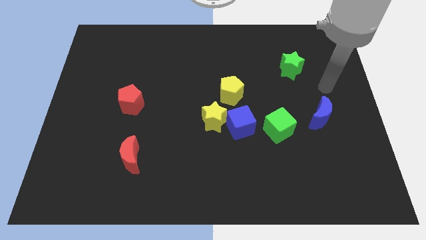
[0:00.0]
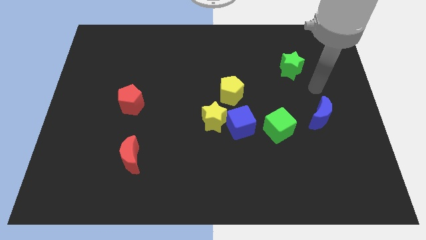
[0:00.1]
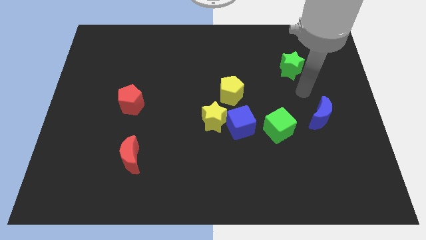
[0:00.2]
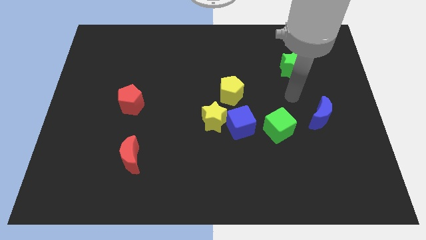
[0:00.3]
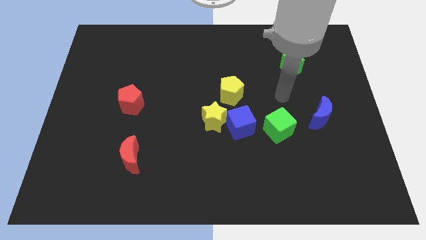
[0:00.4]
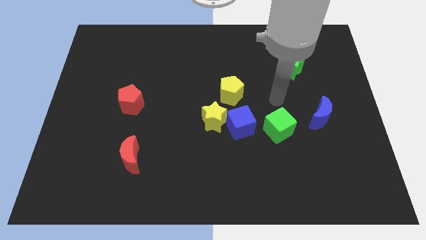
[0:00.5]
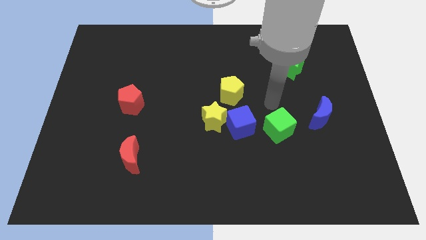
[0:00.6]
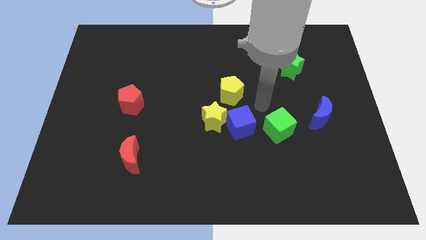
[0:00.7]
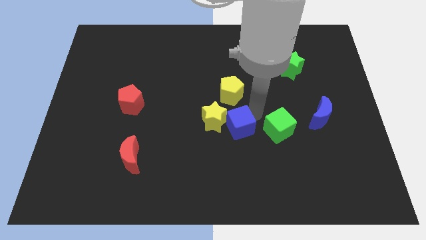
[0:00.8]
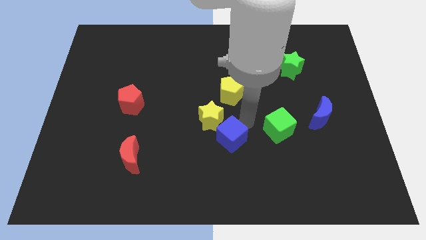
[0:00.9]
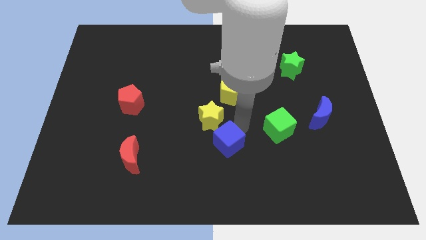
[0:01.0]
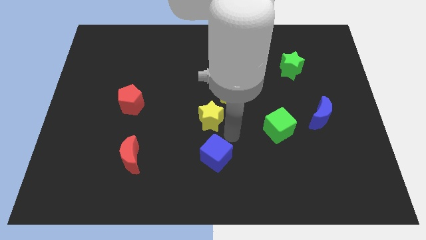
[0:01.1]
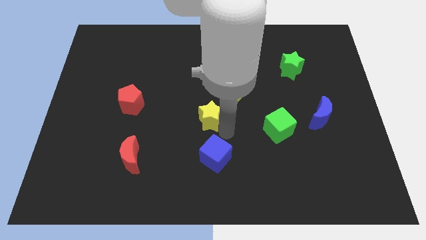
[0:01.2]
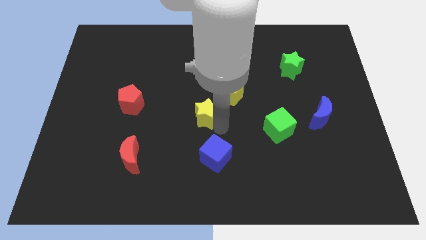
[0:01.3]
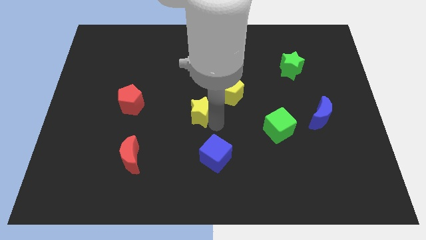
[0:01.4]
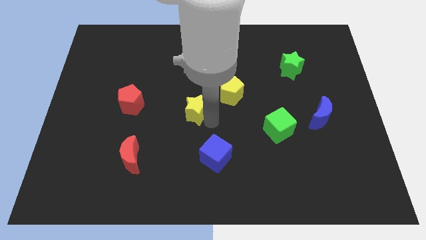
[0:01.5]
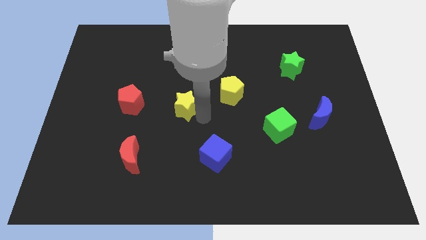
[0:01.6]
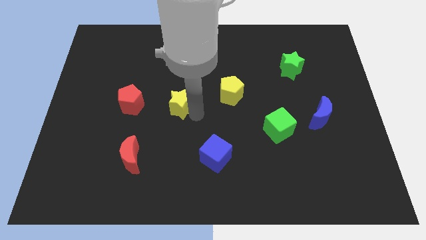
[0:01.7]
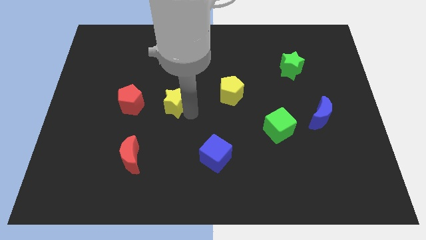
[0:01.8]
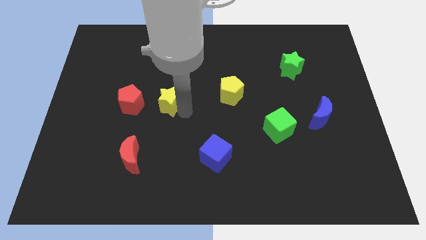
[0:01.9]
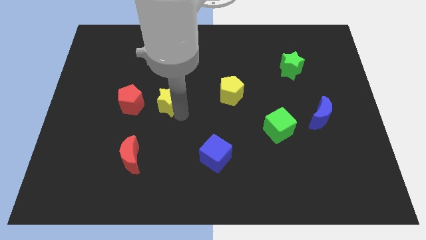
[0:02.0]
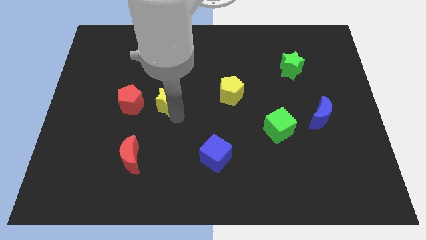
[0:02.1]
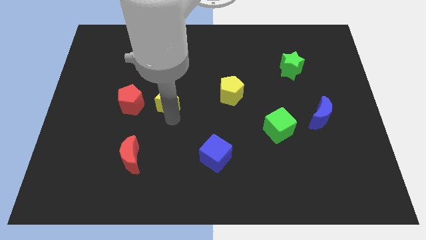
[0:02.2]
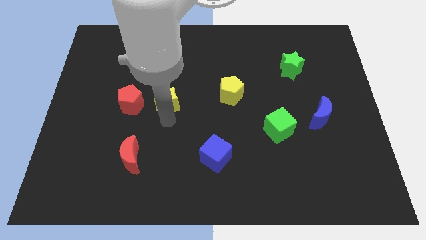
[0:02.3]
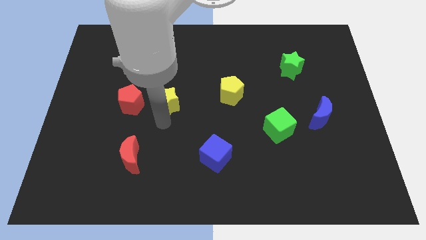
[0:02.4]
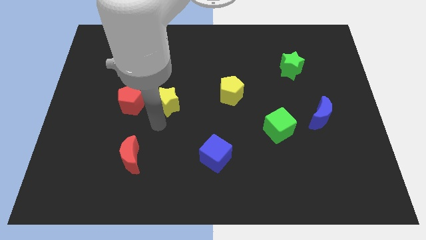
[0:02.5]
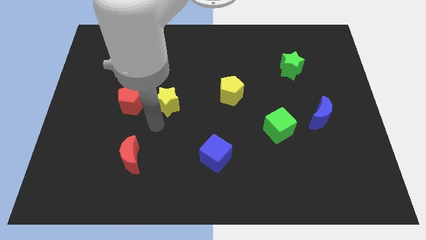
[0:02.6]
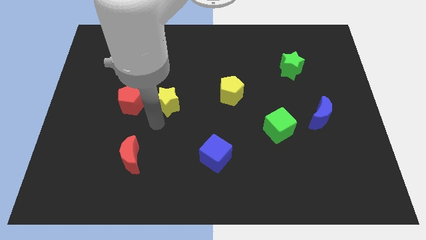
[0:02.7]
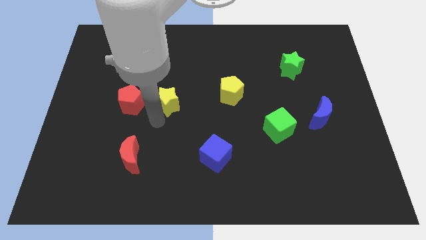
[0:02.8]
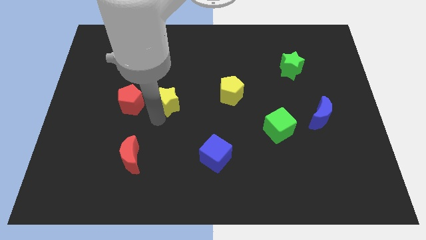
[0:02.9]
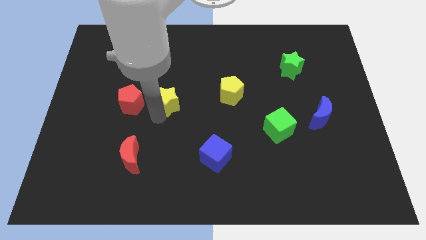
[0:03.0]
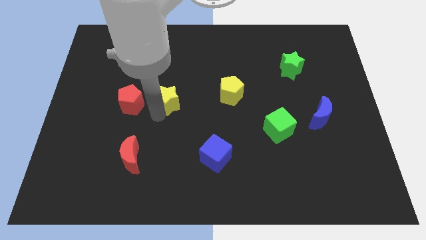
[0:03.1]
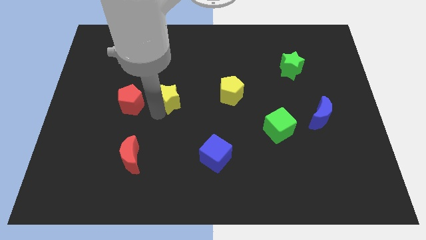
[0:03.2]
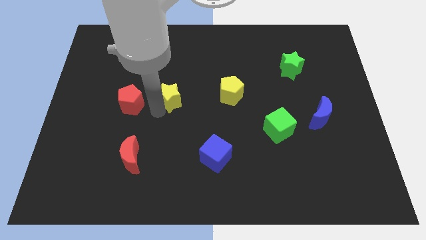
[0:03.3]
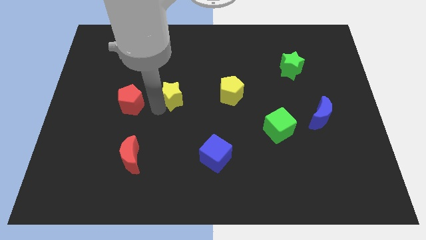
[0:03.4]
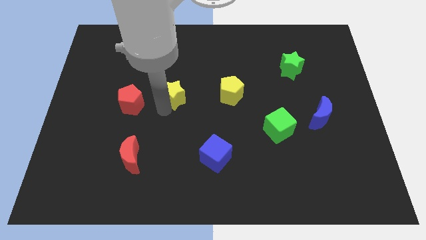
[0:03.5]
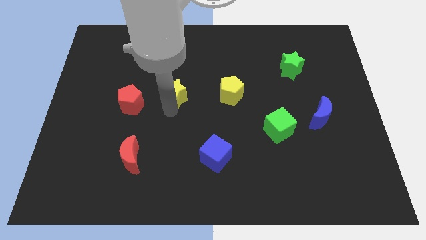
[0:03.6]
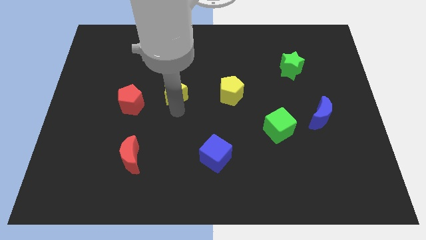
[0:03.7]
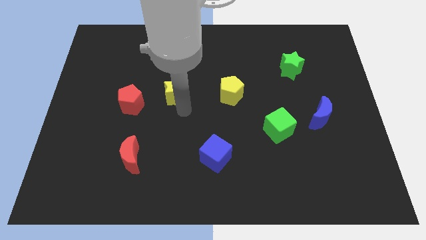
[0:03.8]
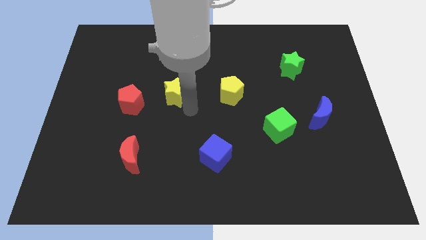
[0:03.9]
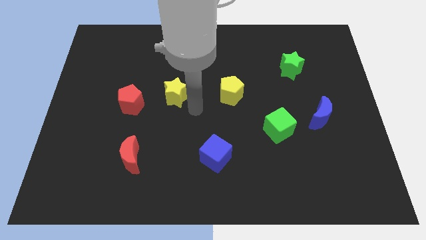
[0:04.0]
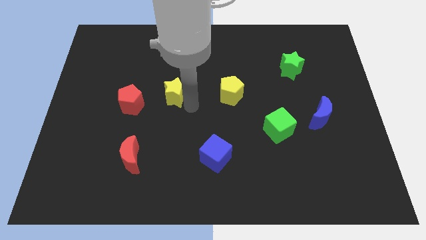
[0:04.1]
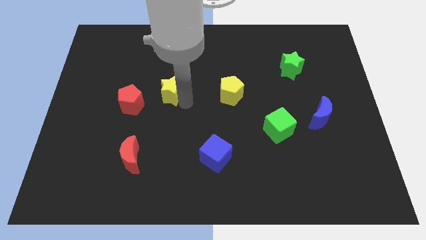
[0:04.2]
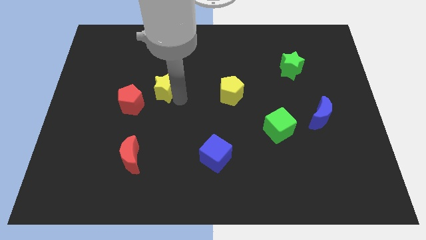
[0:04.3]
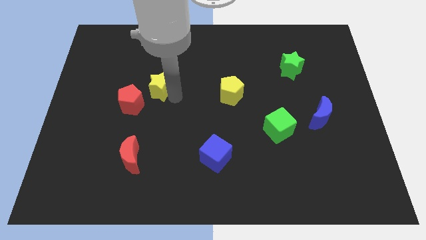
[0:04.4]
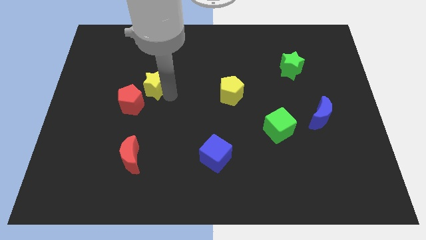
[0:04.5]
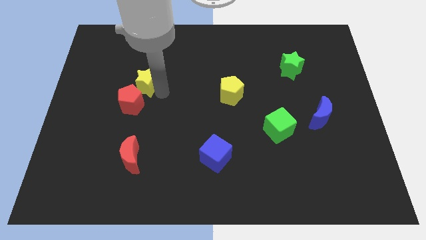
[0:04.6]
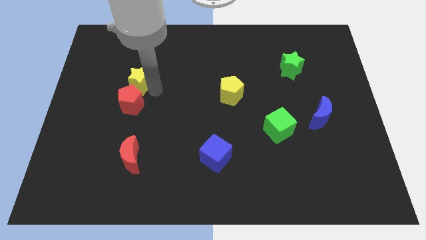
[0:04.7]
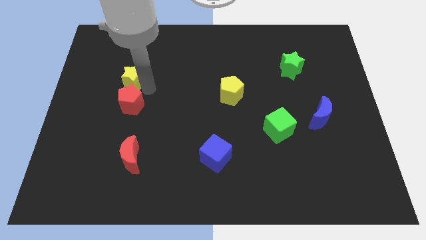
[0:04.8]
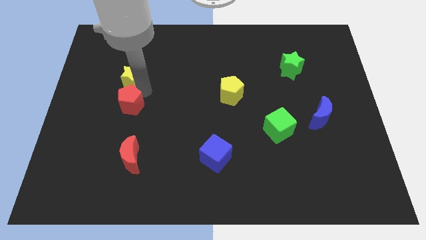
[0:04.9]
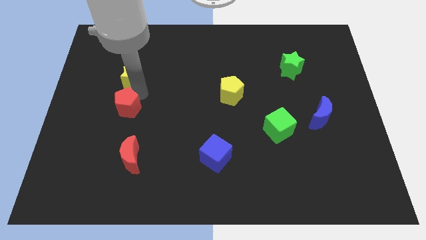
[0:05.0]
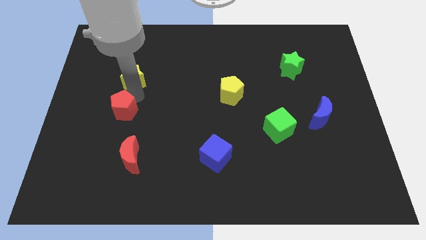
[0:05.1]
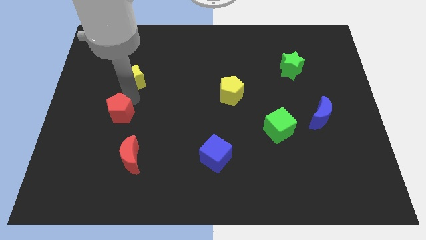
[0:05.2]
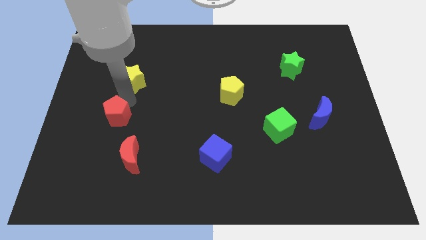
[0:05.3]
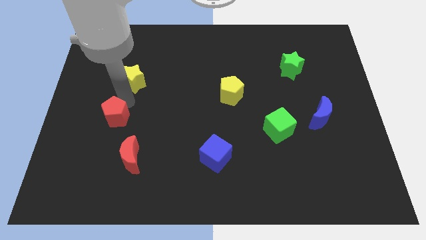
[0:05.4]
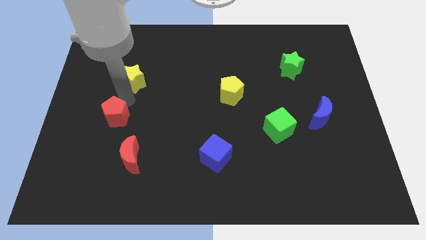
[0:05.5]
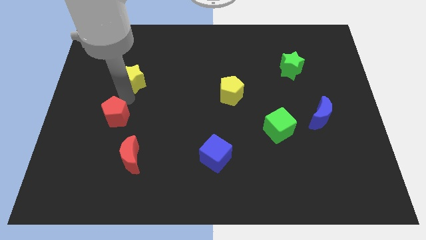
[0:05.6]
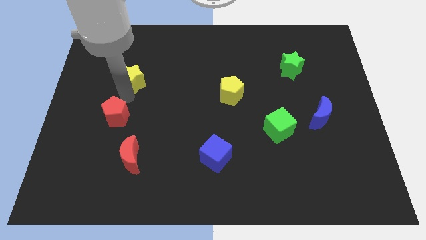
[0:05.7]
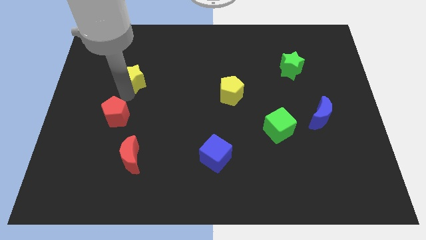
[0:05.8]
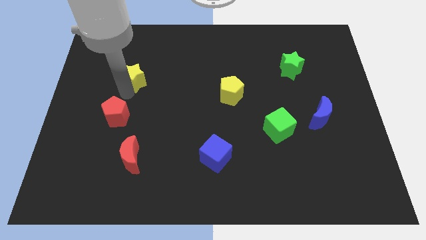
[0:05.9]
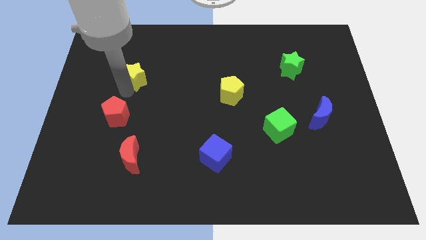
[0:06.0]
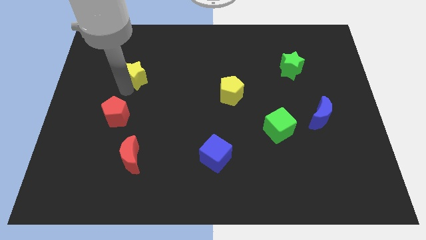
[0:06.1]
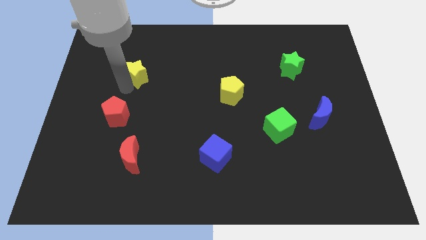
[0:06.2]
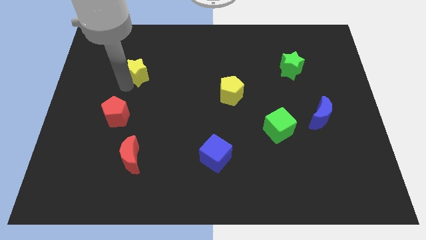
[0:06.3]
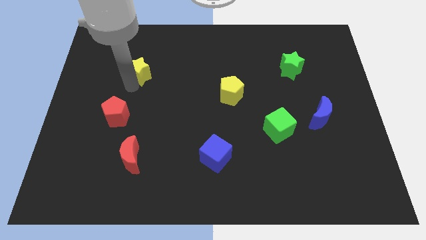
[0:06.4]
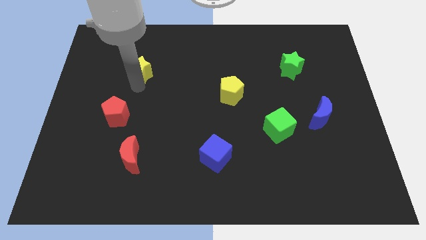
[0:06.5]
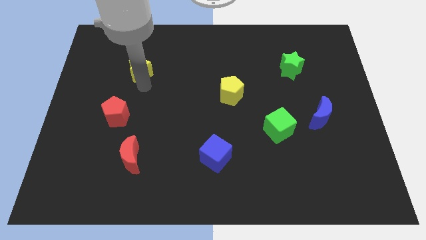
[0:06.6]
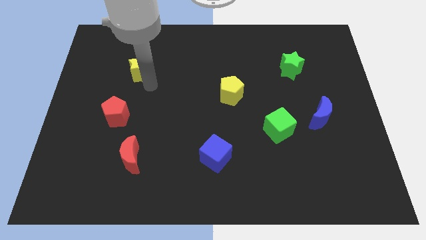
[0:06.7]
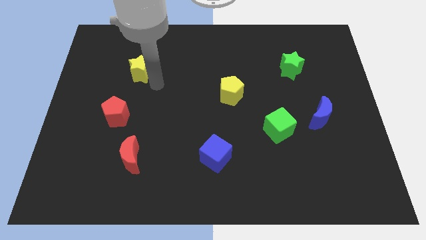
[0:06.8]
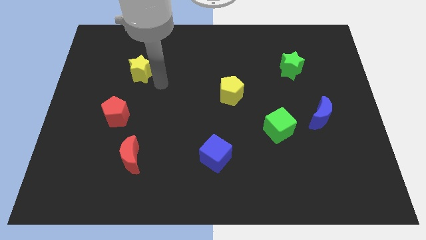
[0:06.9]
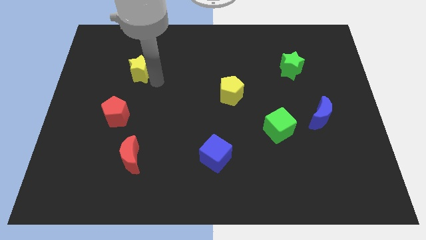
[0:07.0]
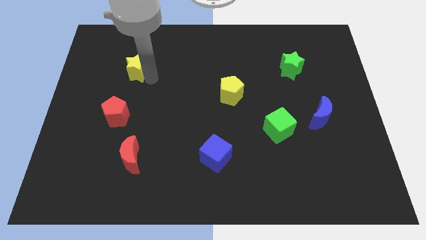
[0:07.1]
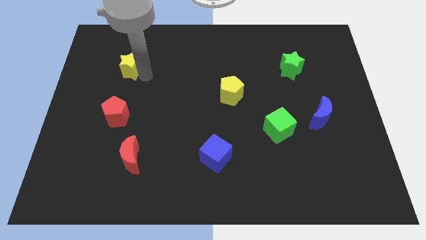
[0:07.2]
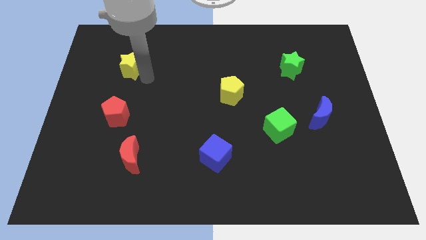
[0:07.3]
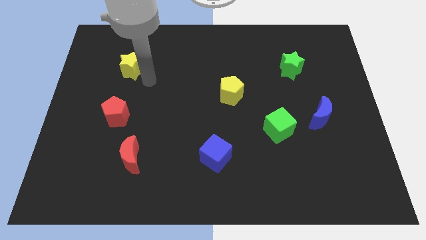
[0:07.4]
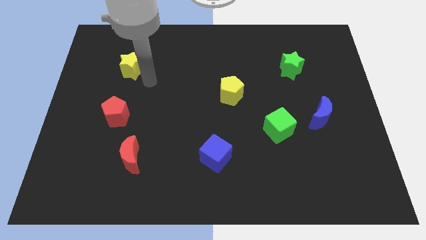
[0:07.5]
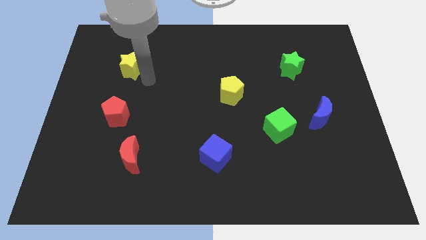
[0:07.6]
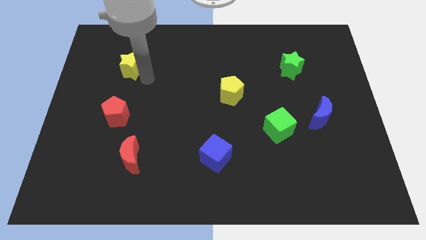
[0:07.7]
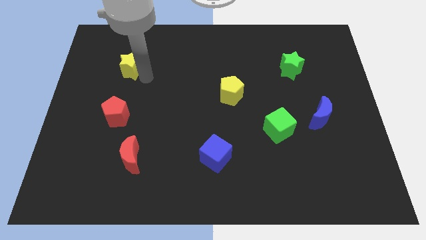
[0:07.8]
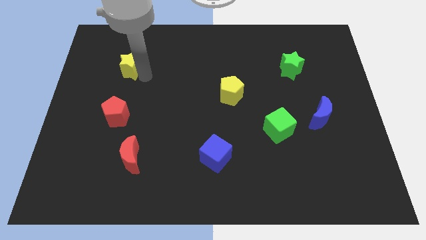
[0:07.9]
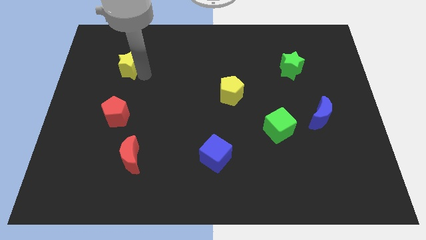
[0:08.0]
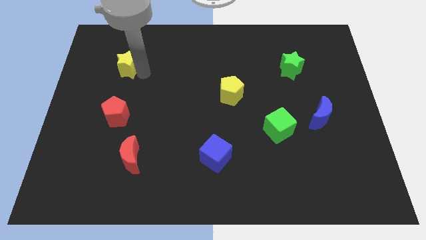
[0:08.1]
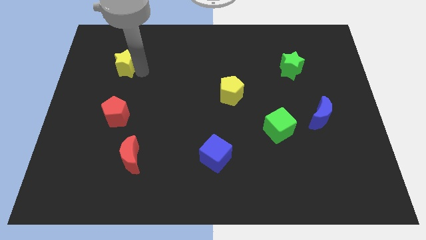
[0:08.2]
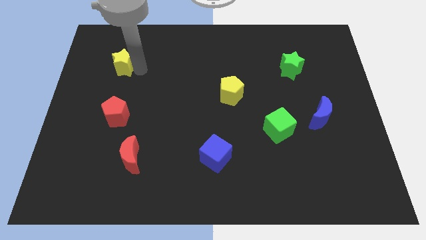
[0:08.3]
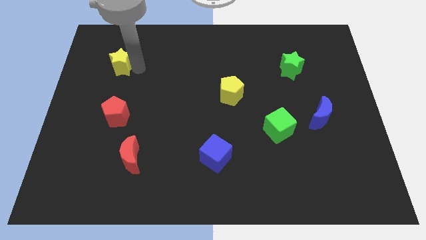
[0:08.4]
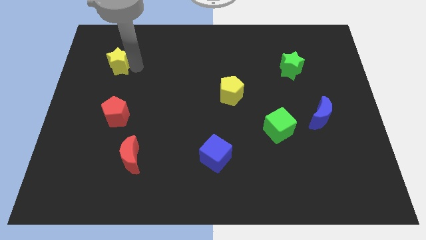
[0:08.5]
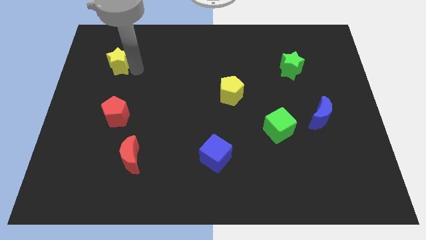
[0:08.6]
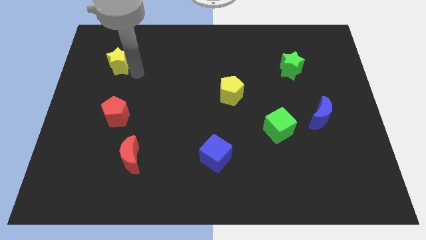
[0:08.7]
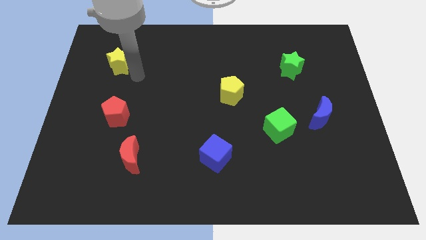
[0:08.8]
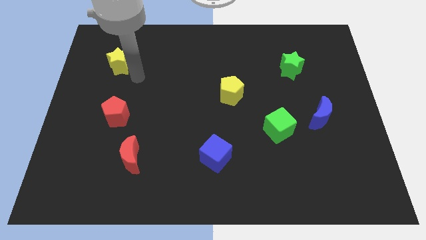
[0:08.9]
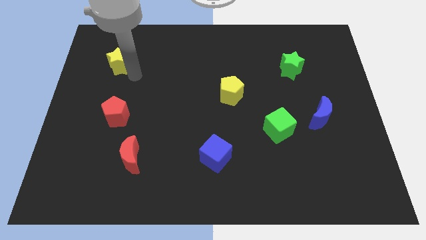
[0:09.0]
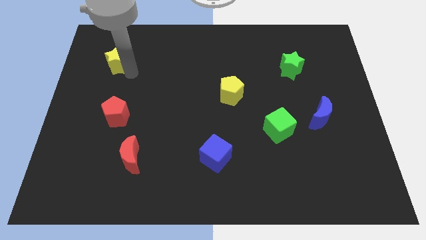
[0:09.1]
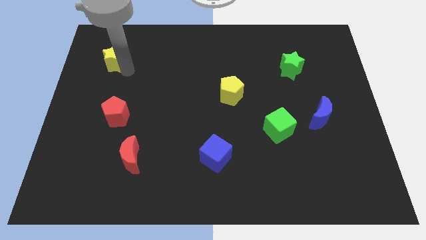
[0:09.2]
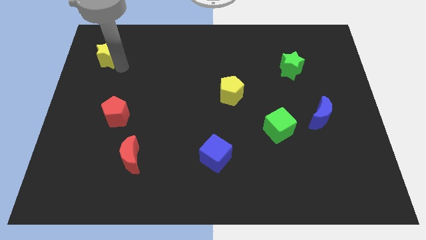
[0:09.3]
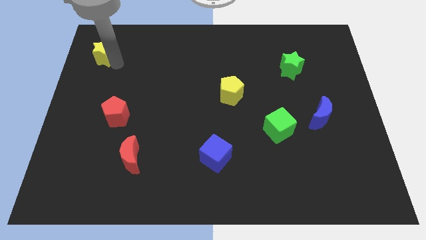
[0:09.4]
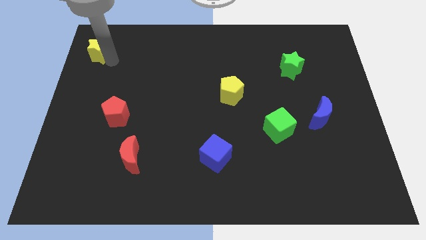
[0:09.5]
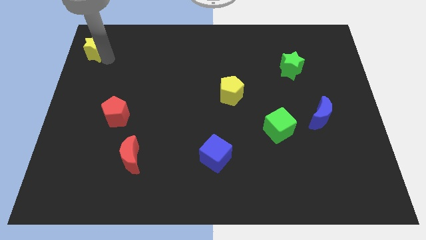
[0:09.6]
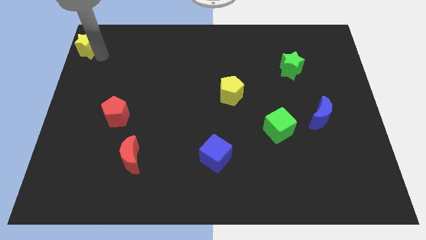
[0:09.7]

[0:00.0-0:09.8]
slide the yellow star to the top left of the board
